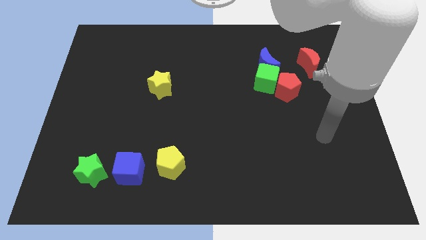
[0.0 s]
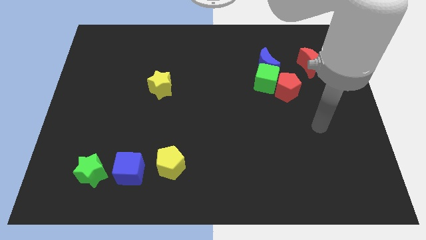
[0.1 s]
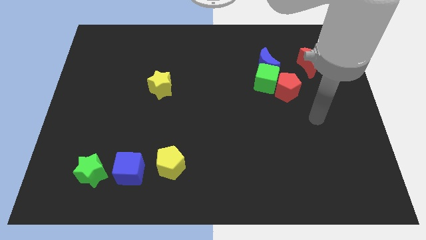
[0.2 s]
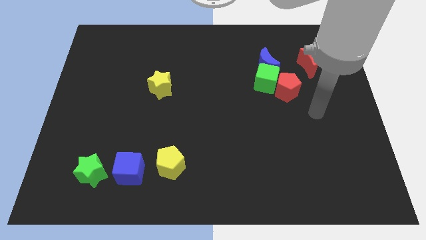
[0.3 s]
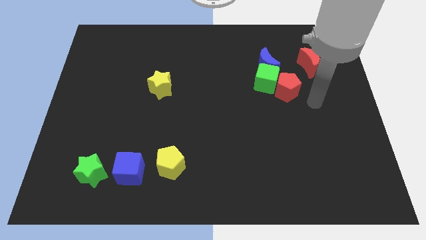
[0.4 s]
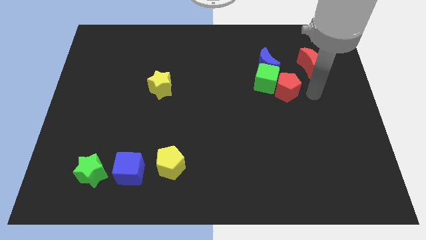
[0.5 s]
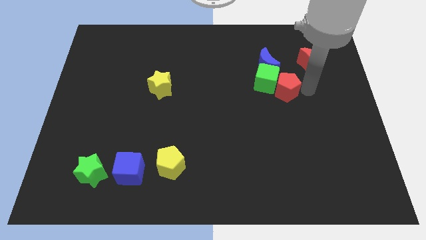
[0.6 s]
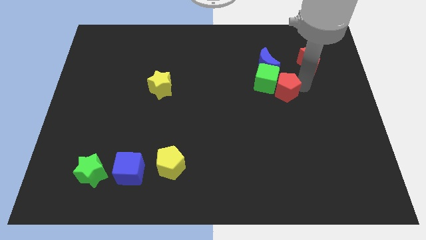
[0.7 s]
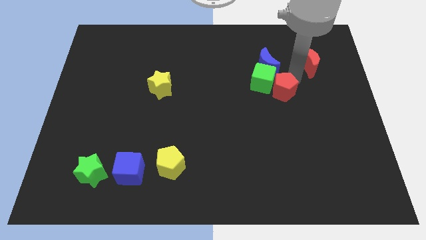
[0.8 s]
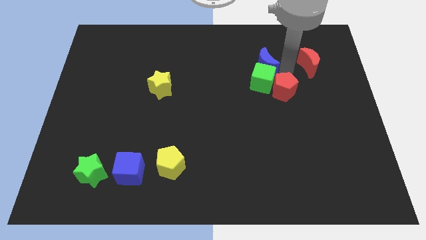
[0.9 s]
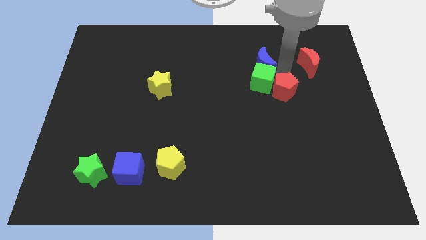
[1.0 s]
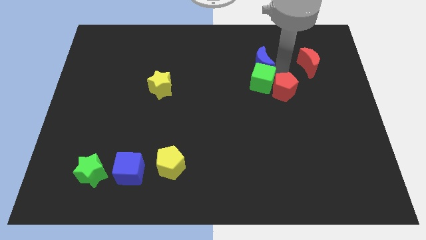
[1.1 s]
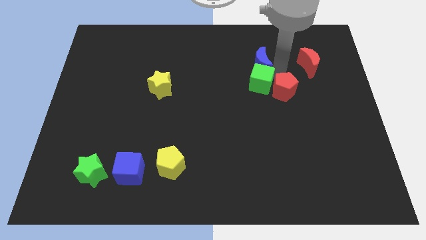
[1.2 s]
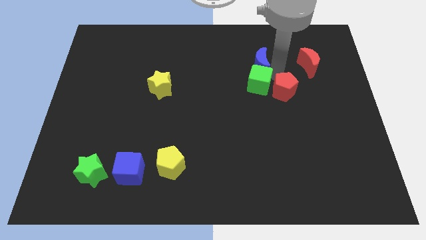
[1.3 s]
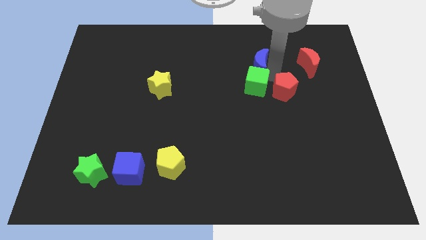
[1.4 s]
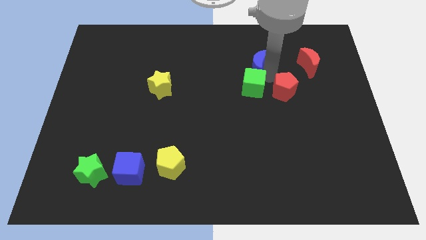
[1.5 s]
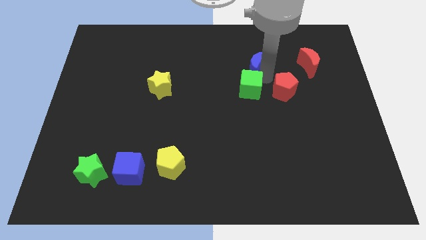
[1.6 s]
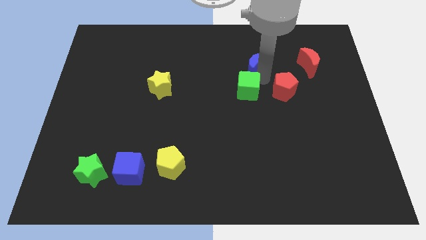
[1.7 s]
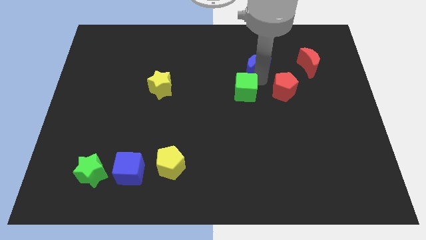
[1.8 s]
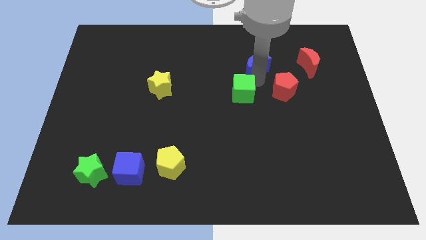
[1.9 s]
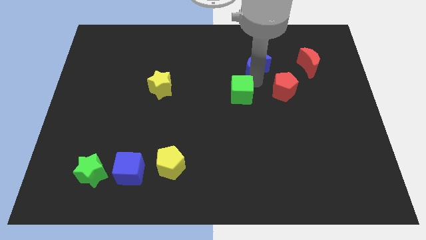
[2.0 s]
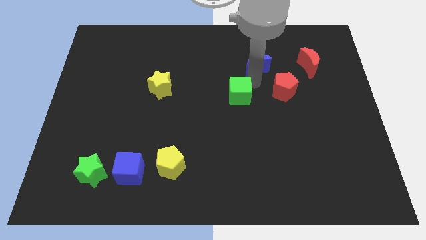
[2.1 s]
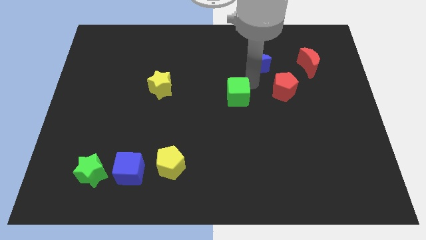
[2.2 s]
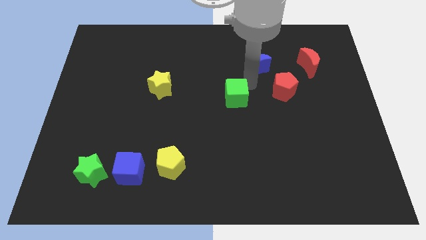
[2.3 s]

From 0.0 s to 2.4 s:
pull the green cube apart from the blue moon and red pentagon

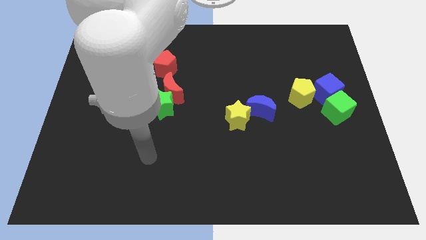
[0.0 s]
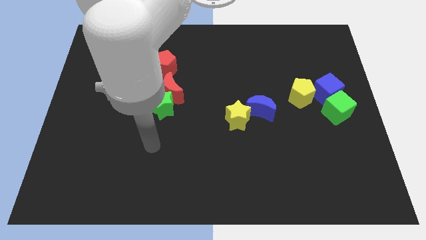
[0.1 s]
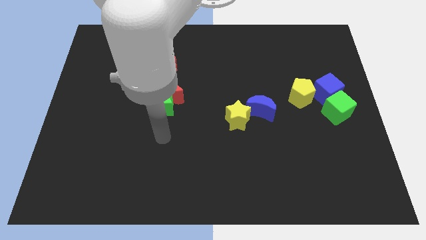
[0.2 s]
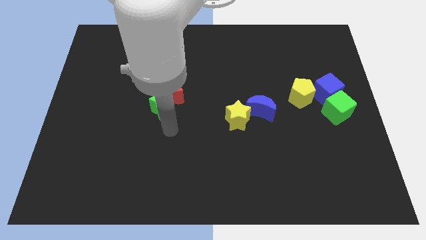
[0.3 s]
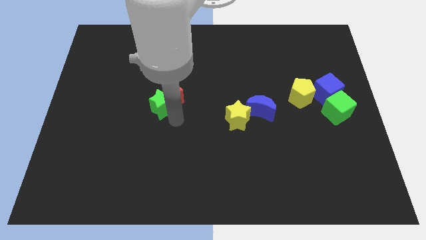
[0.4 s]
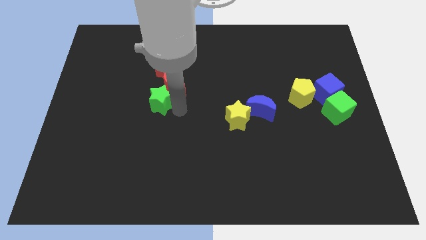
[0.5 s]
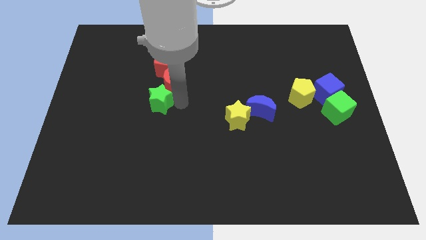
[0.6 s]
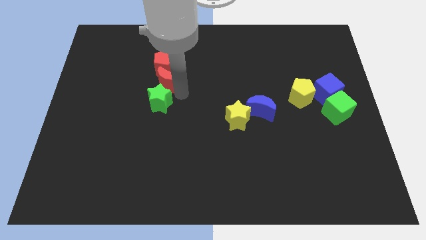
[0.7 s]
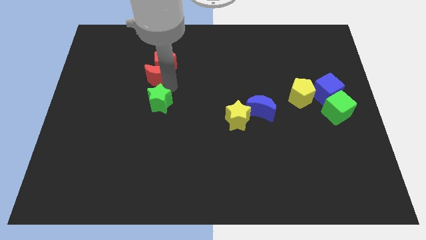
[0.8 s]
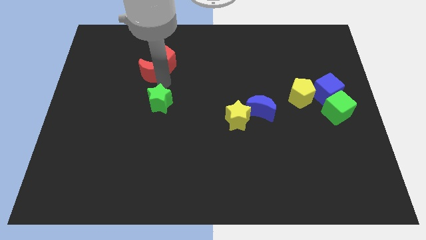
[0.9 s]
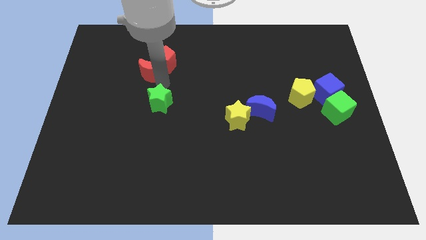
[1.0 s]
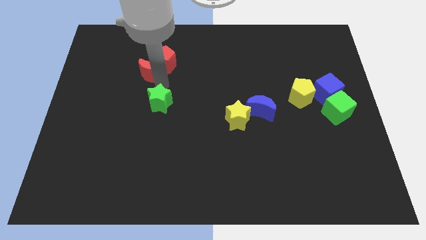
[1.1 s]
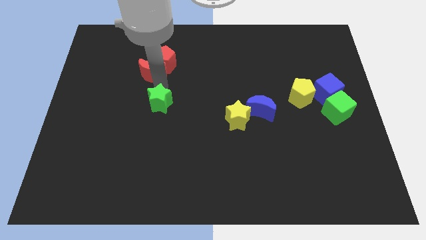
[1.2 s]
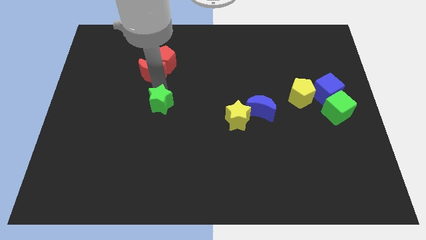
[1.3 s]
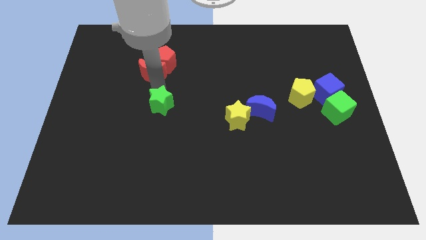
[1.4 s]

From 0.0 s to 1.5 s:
move the green star away from the red moon

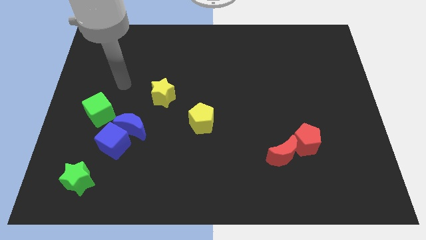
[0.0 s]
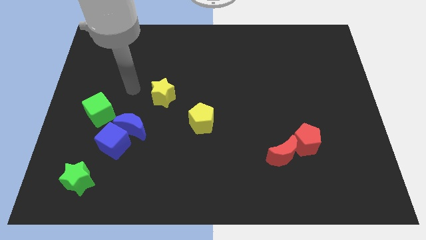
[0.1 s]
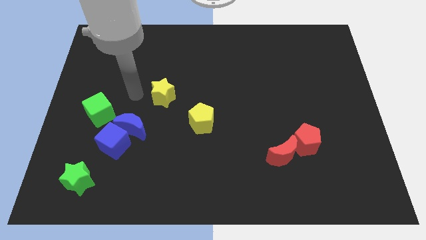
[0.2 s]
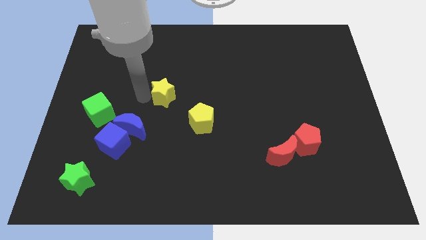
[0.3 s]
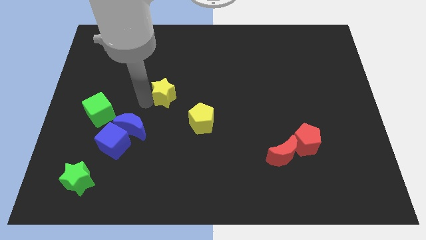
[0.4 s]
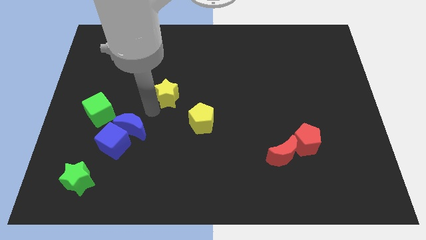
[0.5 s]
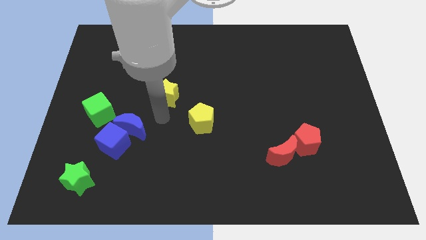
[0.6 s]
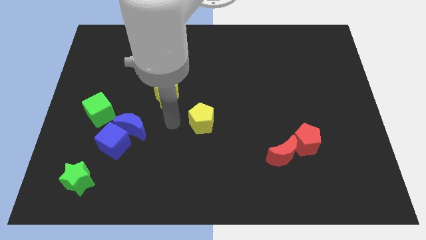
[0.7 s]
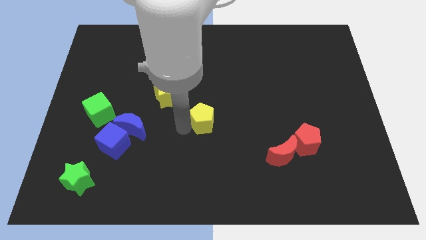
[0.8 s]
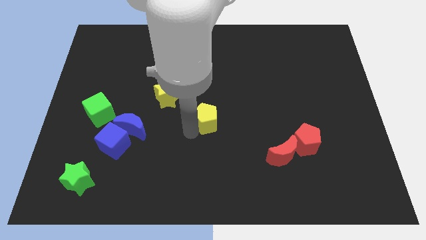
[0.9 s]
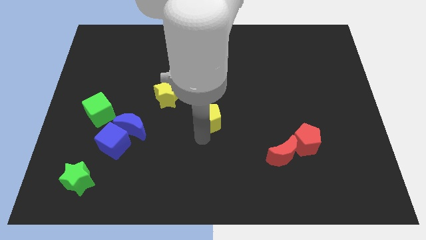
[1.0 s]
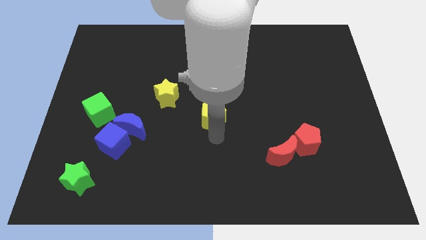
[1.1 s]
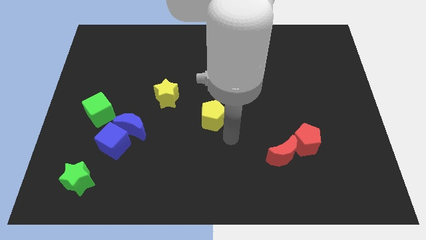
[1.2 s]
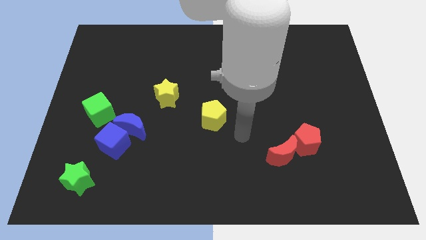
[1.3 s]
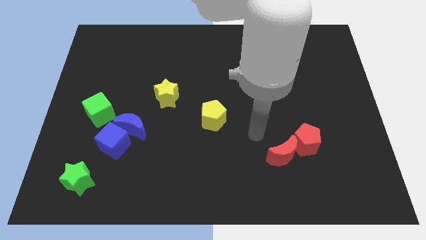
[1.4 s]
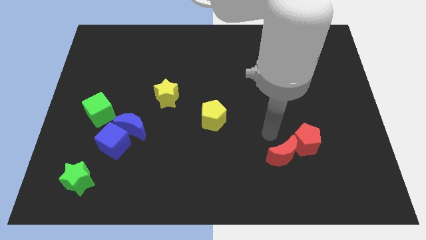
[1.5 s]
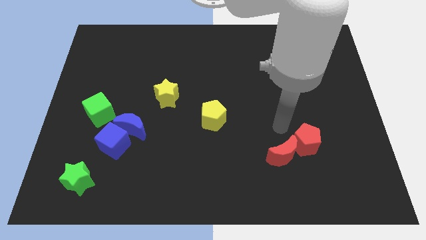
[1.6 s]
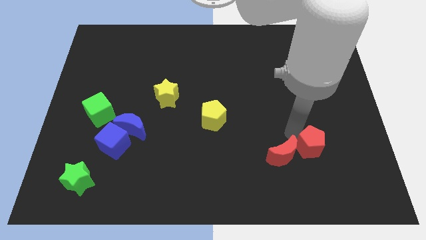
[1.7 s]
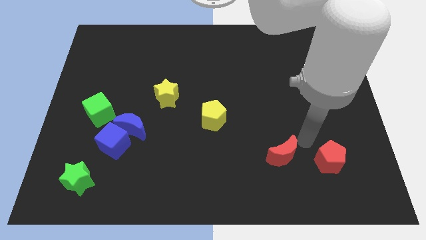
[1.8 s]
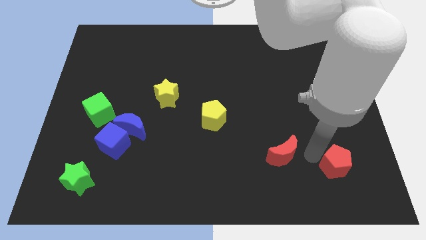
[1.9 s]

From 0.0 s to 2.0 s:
pull the red moon apart from the red pentagon

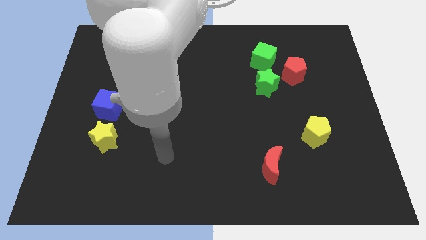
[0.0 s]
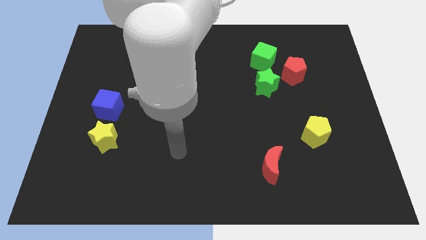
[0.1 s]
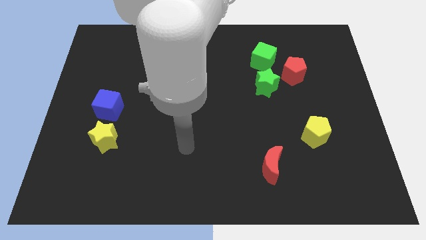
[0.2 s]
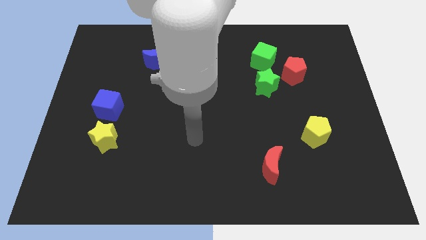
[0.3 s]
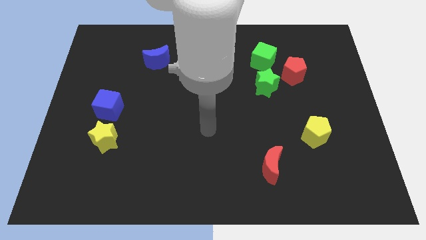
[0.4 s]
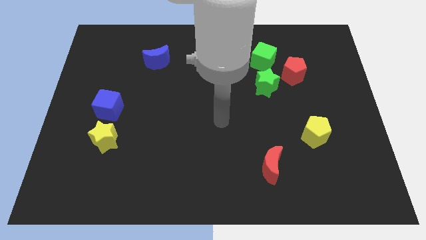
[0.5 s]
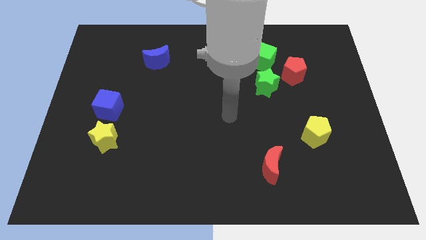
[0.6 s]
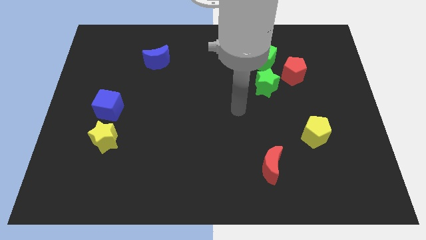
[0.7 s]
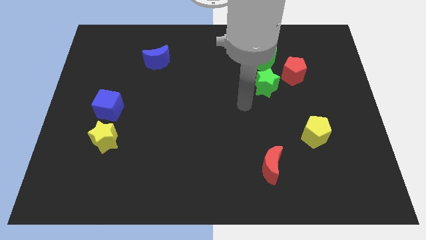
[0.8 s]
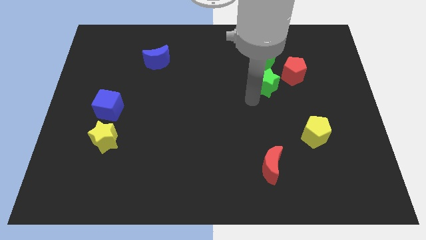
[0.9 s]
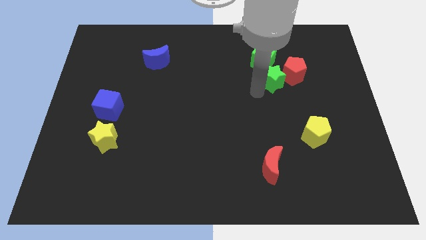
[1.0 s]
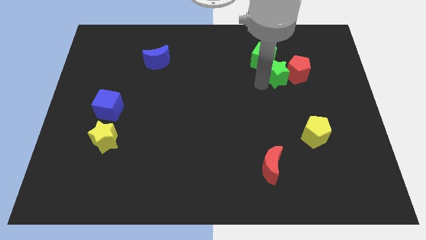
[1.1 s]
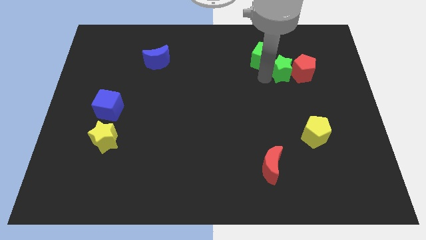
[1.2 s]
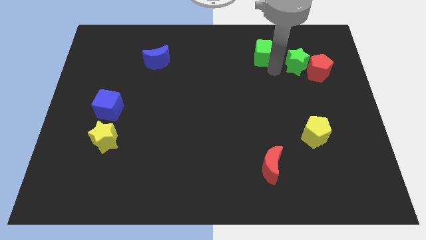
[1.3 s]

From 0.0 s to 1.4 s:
separate the red pentagon from the green star and green cube

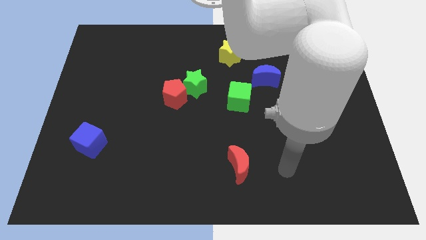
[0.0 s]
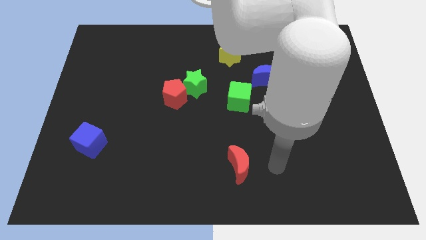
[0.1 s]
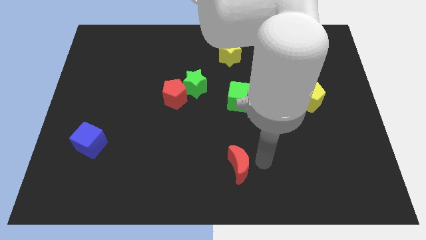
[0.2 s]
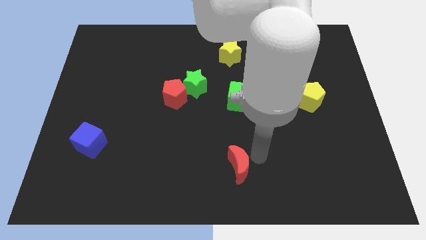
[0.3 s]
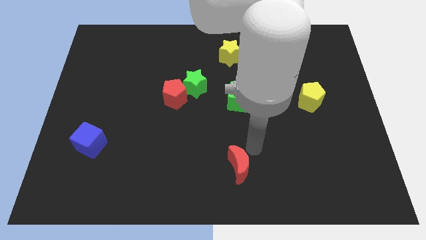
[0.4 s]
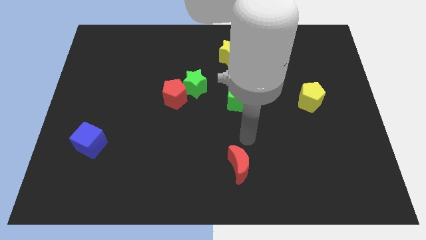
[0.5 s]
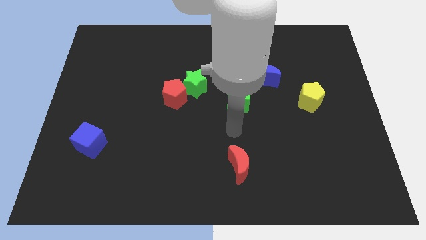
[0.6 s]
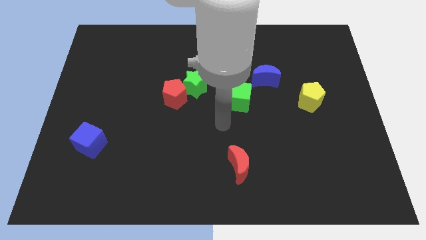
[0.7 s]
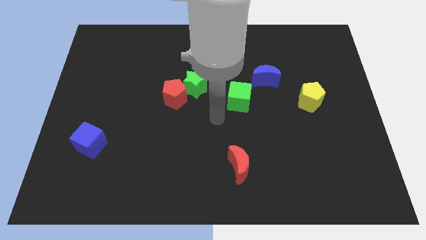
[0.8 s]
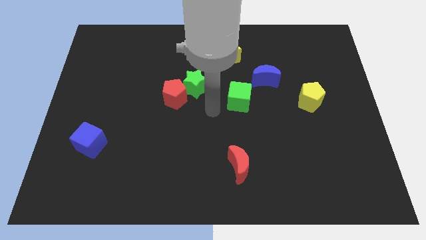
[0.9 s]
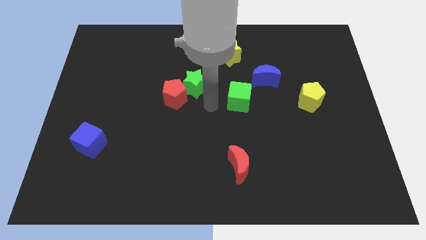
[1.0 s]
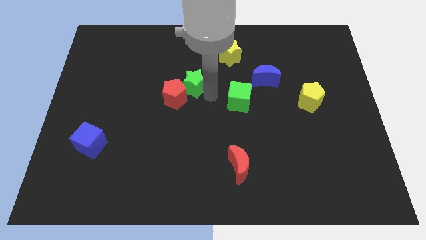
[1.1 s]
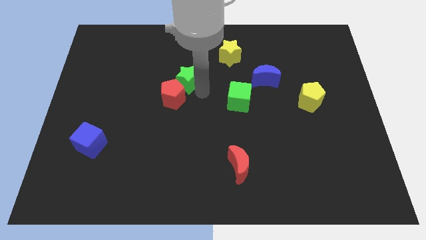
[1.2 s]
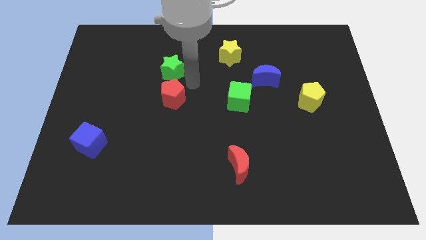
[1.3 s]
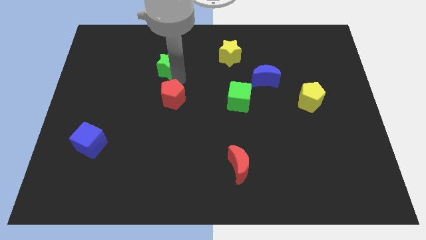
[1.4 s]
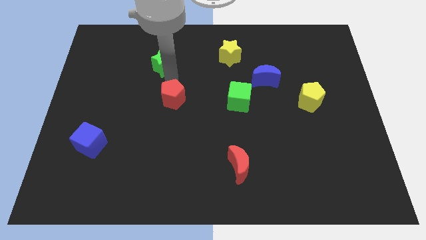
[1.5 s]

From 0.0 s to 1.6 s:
move the red pentagon away from the green star

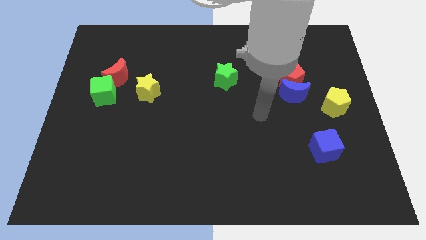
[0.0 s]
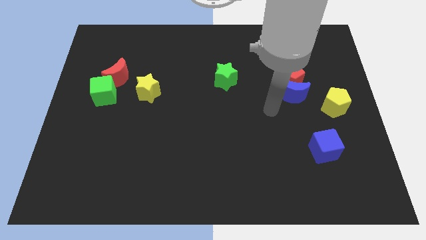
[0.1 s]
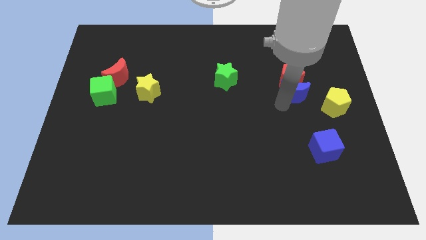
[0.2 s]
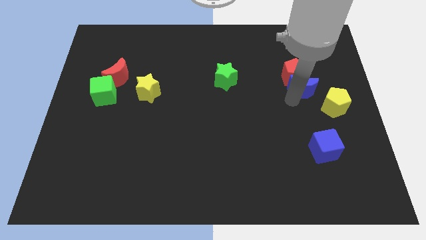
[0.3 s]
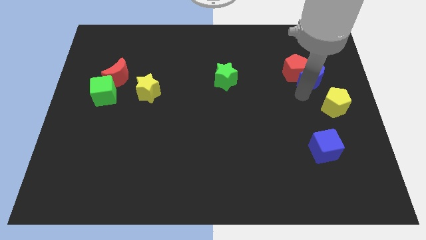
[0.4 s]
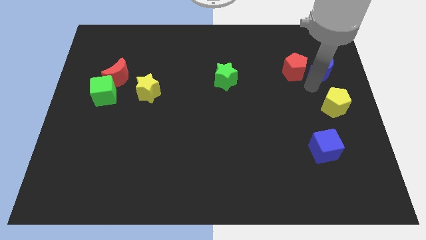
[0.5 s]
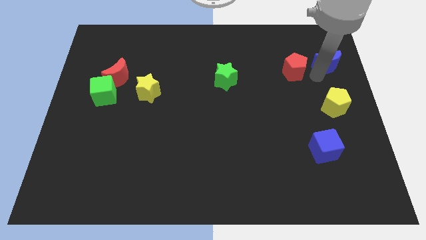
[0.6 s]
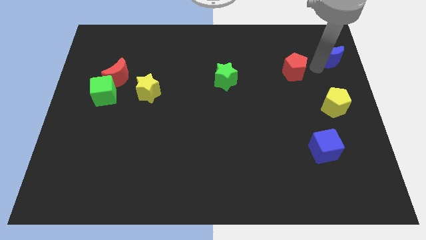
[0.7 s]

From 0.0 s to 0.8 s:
separate the red pentagon from the blue moon
